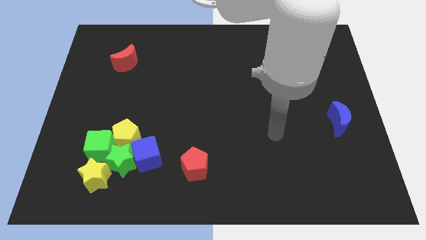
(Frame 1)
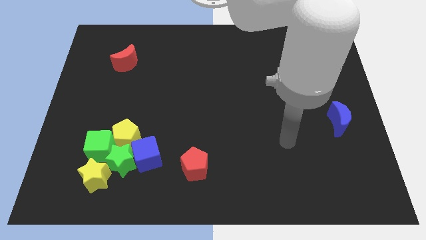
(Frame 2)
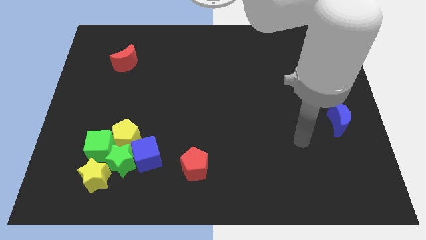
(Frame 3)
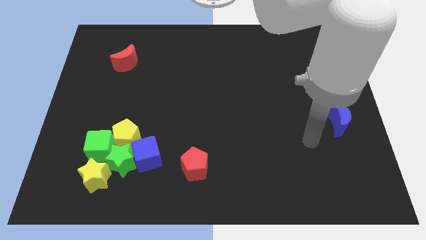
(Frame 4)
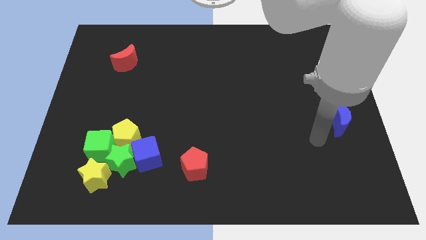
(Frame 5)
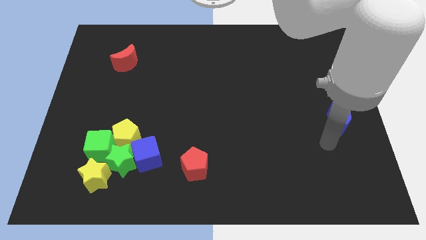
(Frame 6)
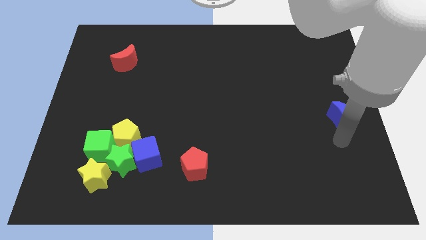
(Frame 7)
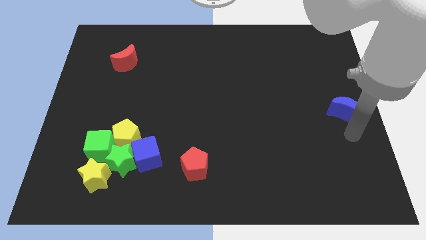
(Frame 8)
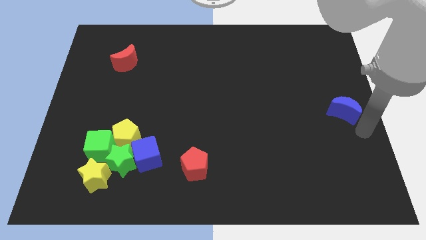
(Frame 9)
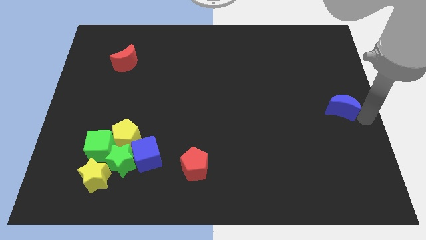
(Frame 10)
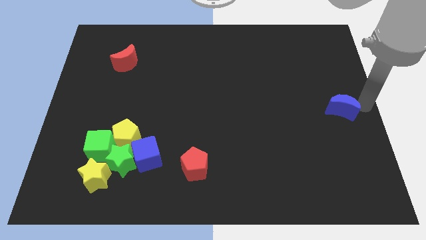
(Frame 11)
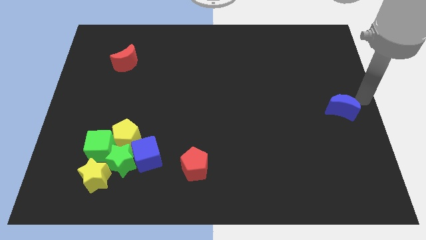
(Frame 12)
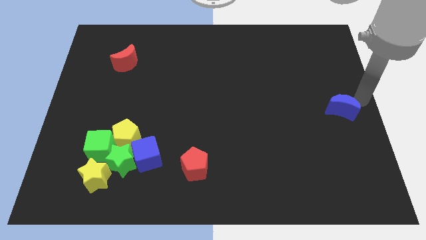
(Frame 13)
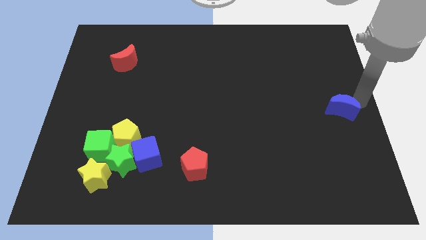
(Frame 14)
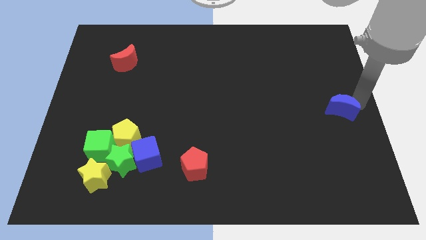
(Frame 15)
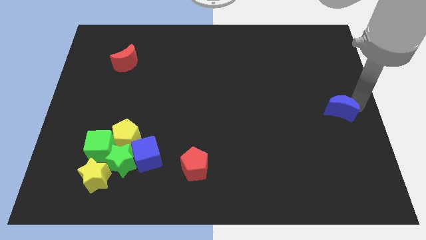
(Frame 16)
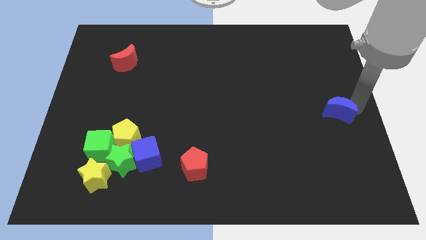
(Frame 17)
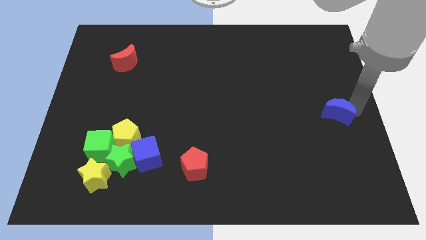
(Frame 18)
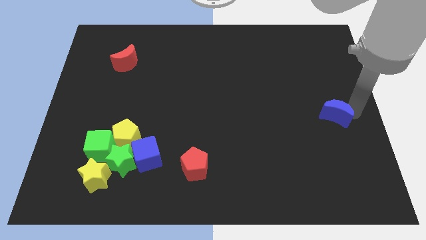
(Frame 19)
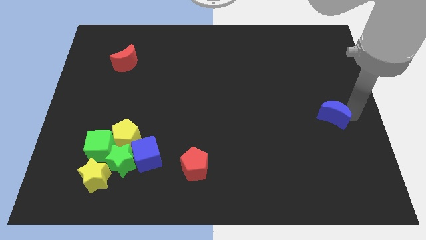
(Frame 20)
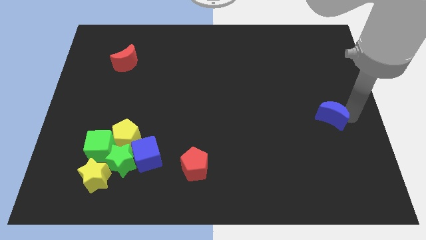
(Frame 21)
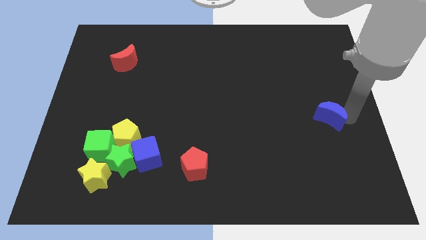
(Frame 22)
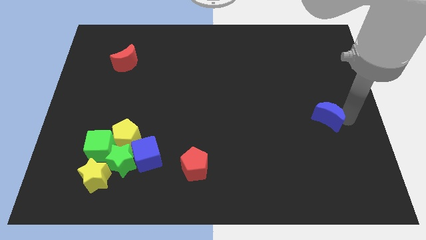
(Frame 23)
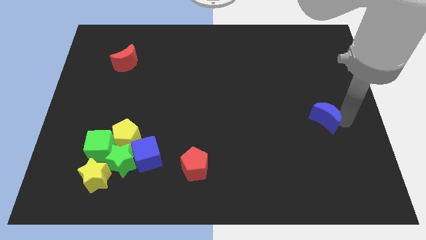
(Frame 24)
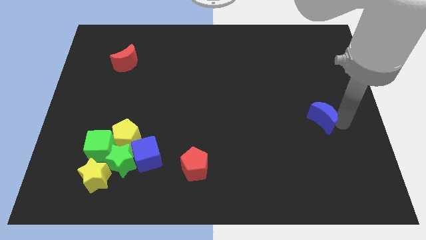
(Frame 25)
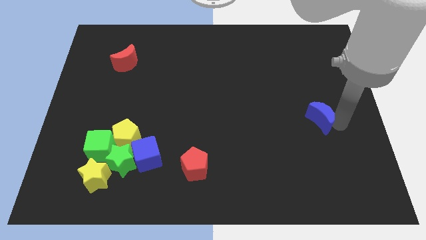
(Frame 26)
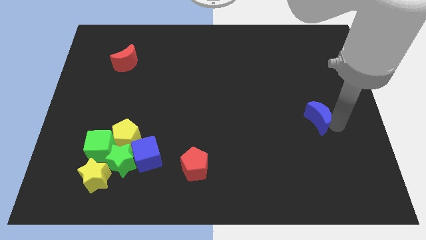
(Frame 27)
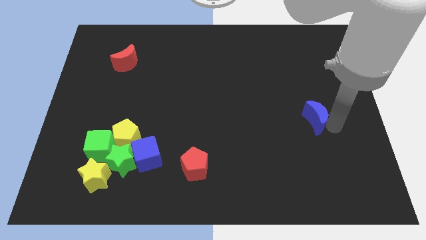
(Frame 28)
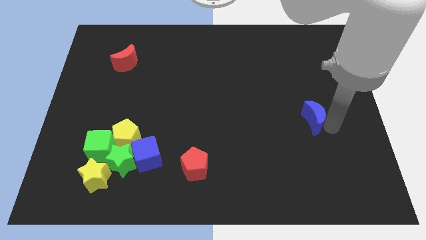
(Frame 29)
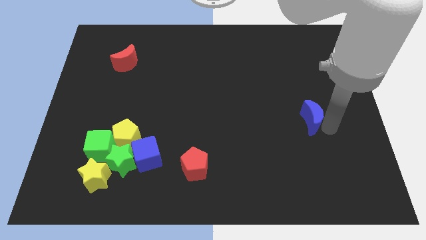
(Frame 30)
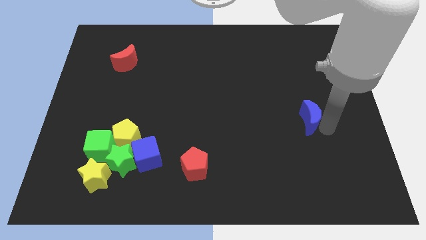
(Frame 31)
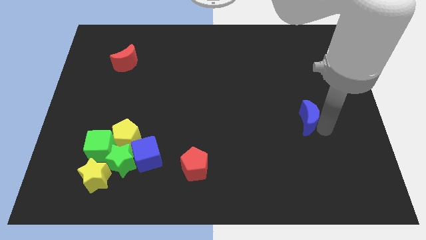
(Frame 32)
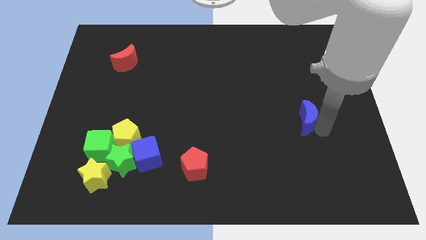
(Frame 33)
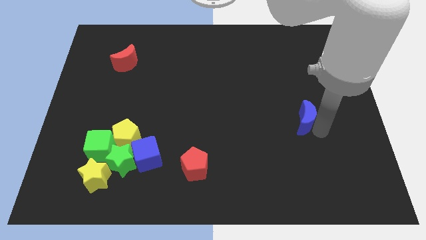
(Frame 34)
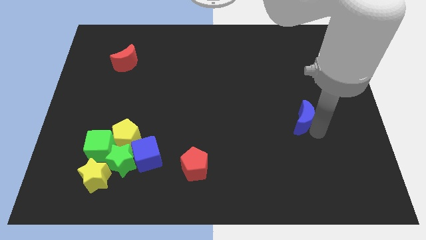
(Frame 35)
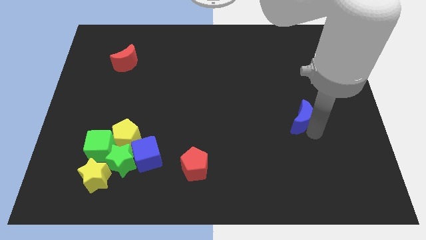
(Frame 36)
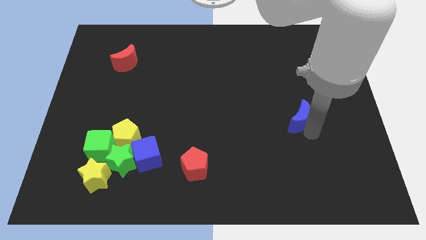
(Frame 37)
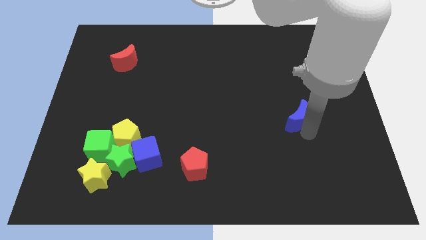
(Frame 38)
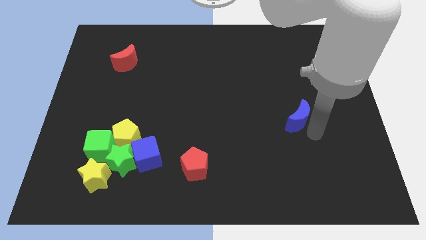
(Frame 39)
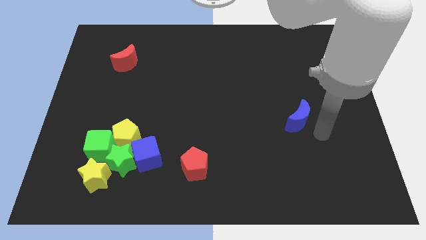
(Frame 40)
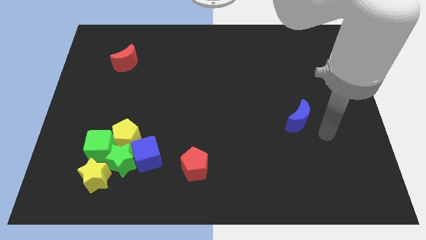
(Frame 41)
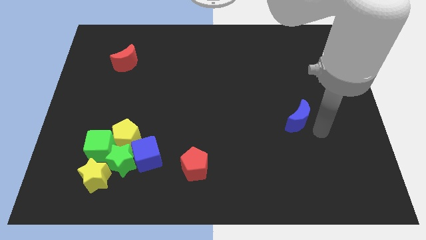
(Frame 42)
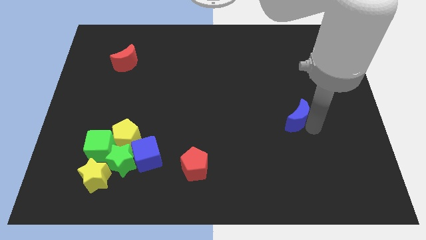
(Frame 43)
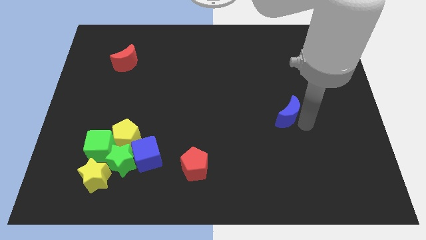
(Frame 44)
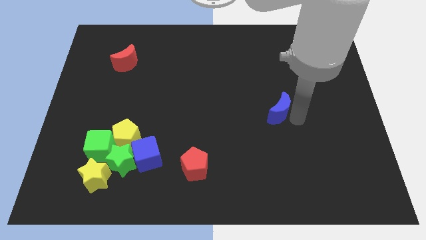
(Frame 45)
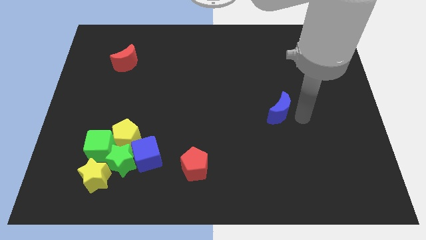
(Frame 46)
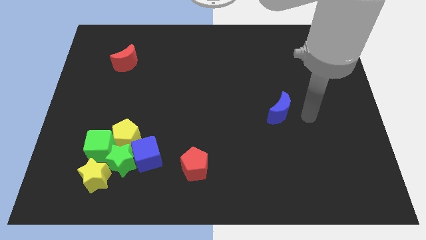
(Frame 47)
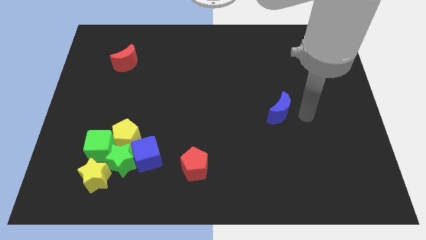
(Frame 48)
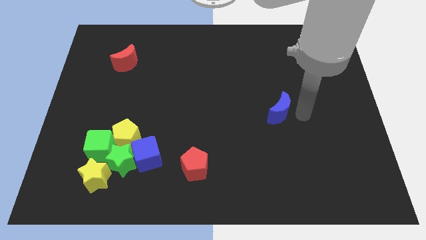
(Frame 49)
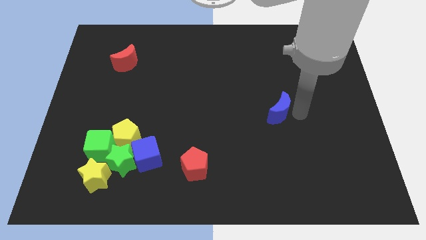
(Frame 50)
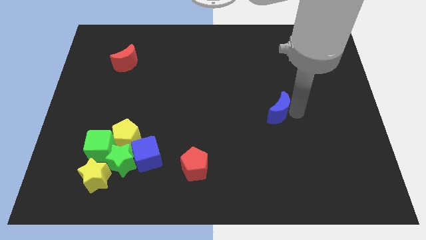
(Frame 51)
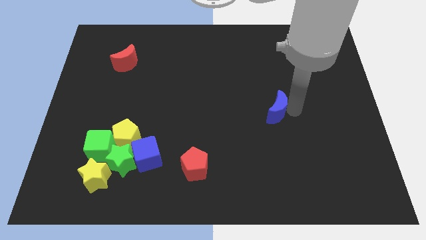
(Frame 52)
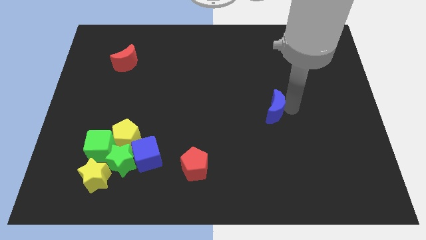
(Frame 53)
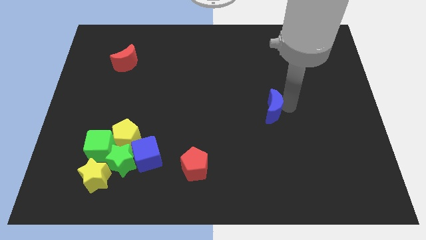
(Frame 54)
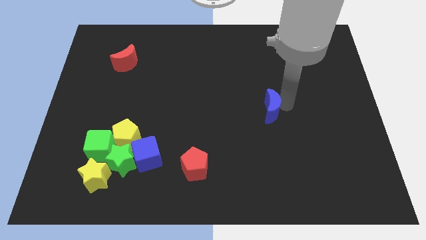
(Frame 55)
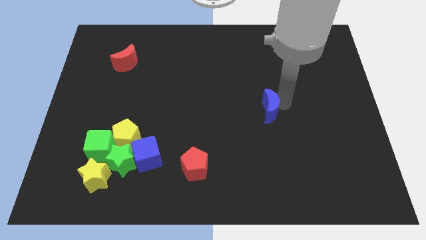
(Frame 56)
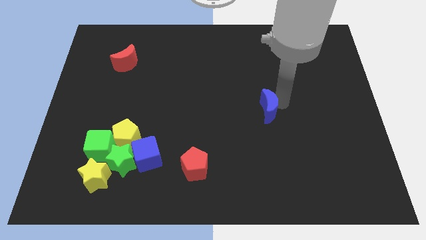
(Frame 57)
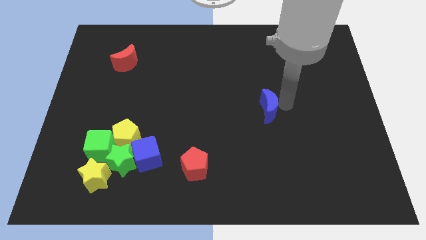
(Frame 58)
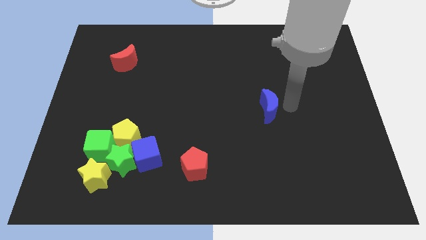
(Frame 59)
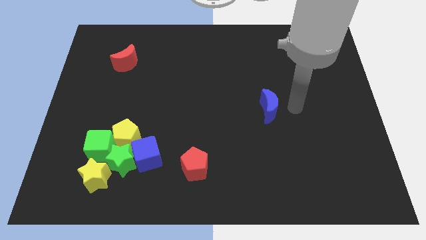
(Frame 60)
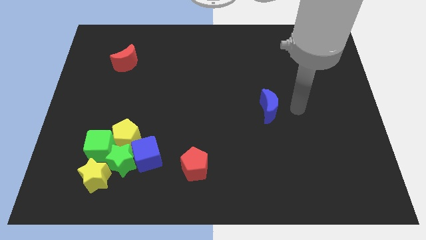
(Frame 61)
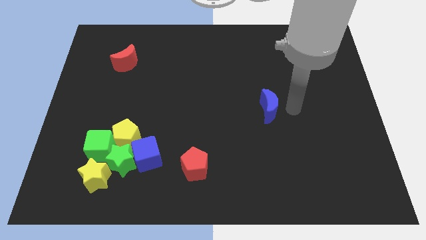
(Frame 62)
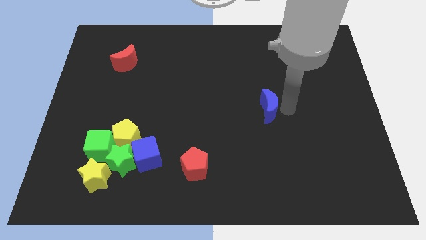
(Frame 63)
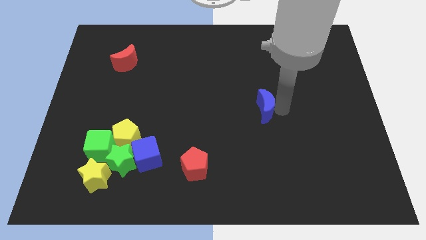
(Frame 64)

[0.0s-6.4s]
move the blue moon to the middle
